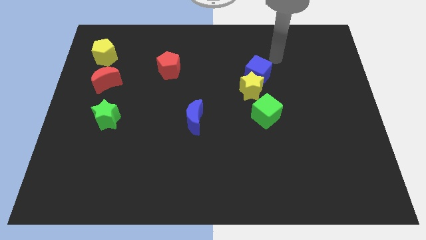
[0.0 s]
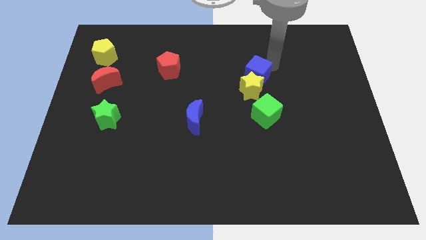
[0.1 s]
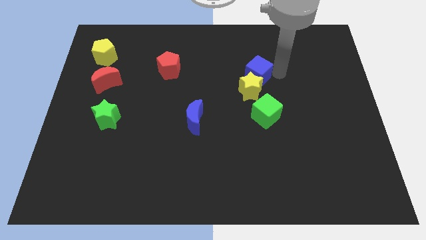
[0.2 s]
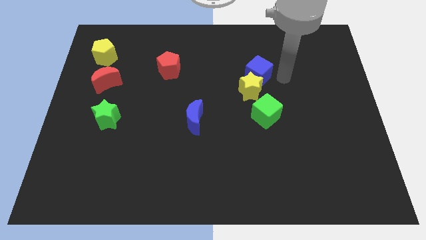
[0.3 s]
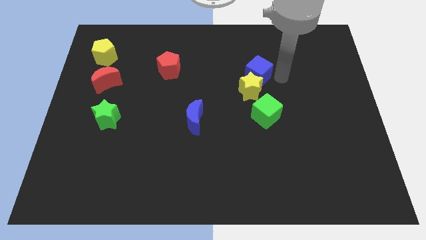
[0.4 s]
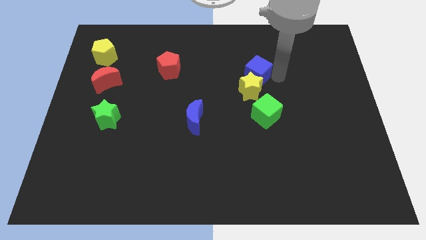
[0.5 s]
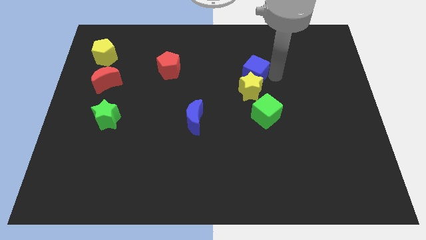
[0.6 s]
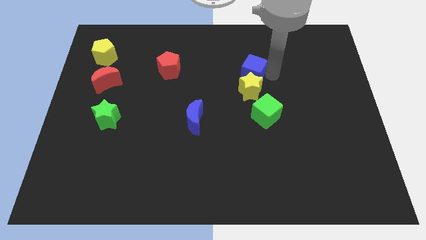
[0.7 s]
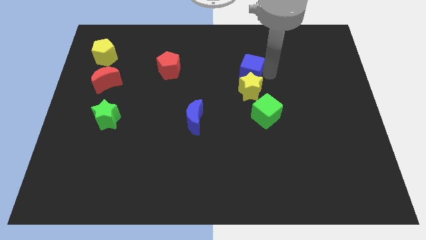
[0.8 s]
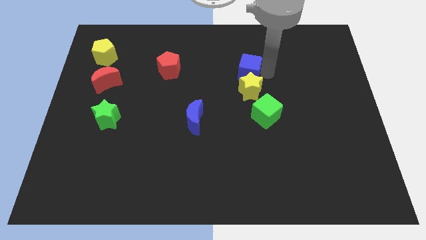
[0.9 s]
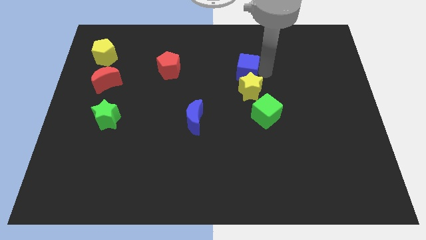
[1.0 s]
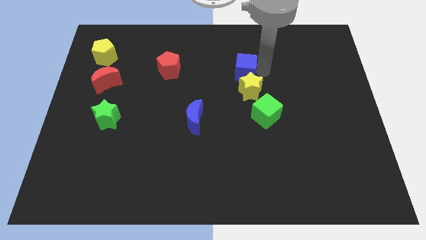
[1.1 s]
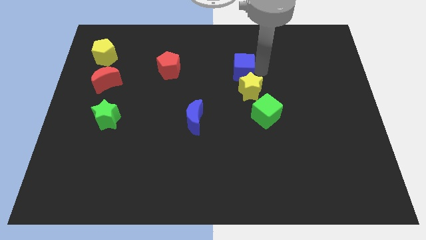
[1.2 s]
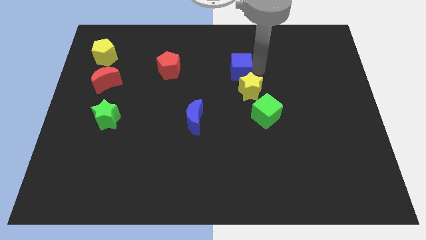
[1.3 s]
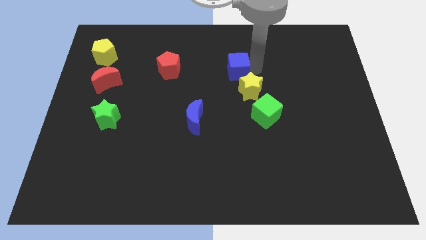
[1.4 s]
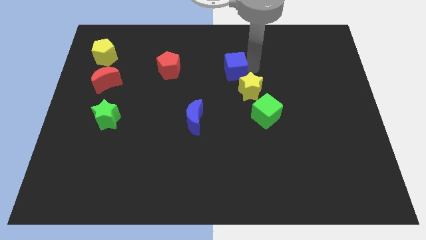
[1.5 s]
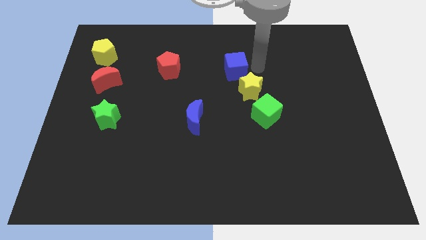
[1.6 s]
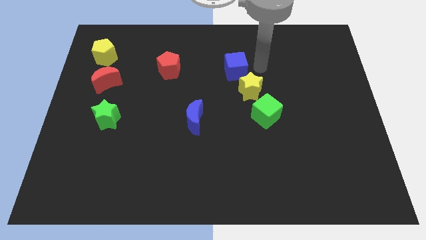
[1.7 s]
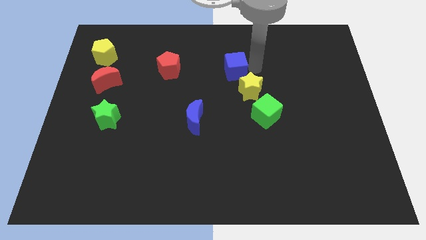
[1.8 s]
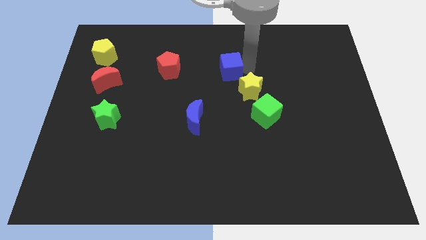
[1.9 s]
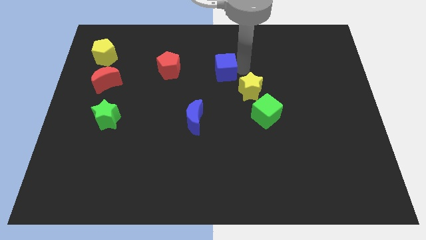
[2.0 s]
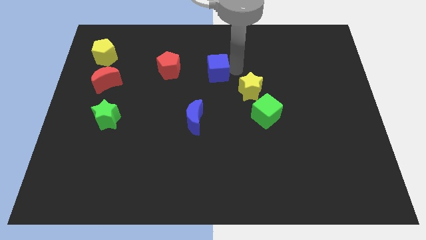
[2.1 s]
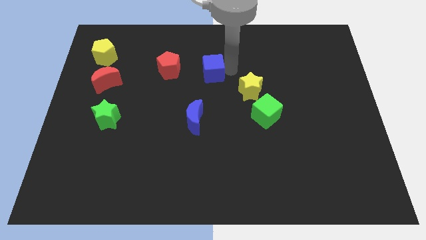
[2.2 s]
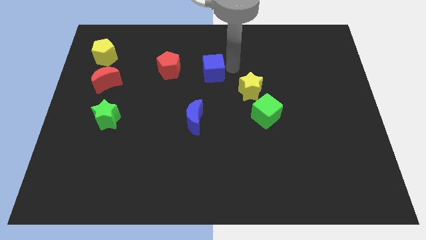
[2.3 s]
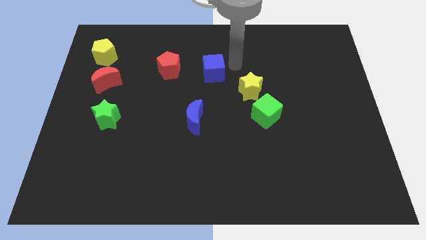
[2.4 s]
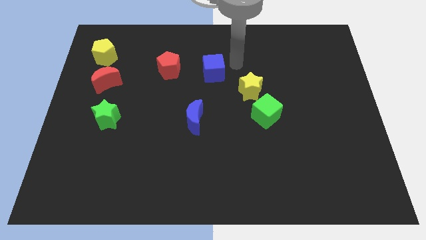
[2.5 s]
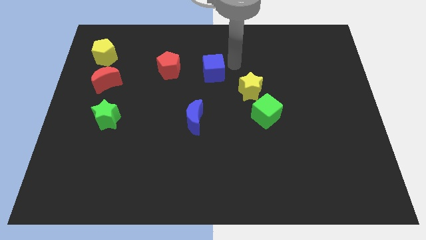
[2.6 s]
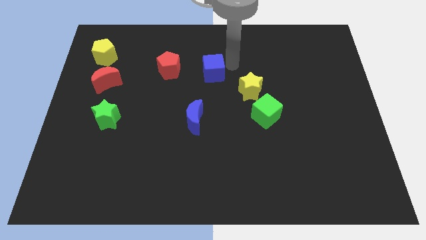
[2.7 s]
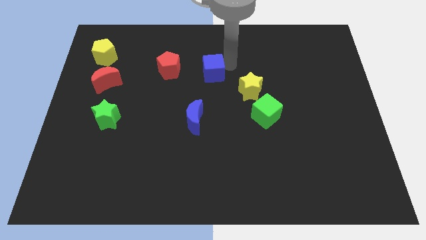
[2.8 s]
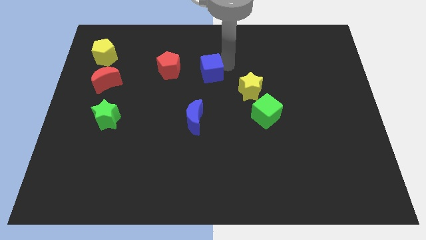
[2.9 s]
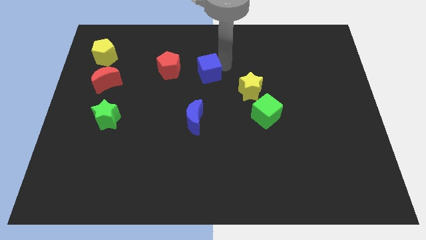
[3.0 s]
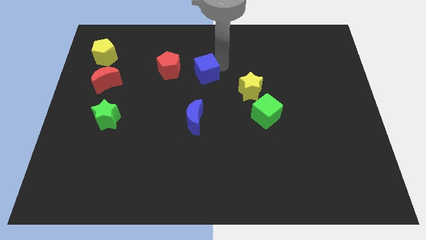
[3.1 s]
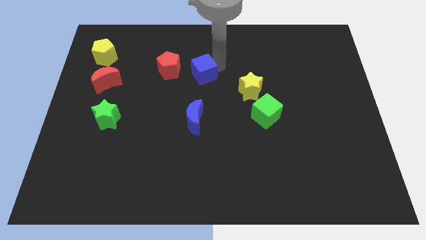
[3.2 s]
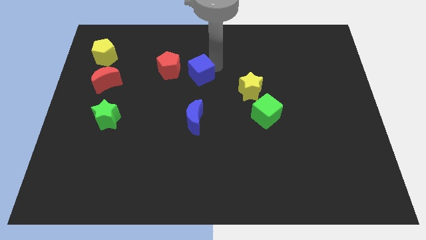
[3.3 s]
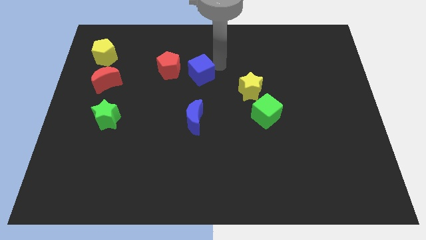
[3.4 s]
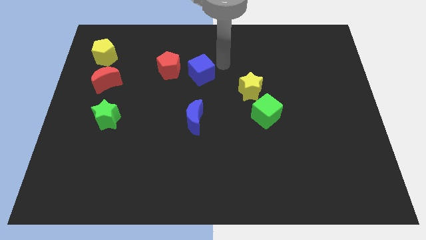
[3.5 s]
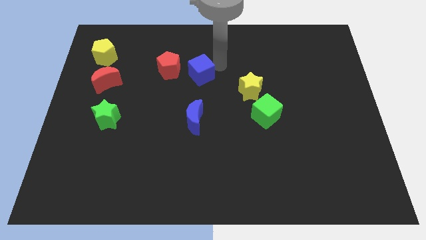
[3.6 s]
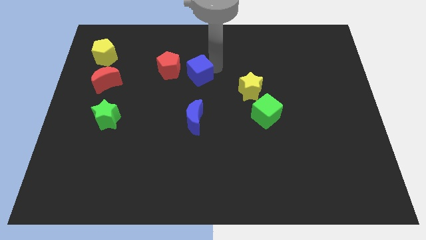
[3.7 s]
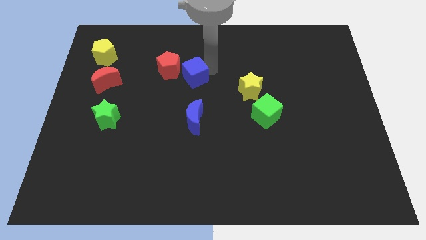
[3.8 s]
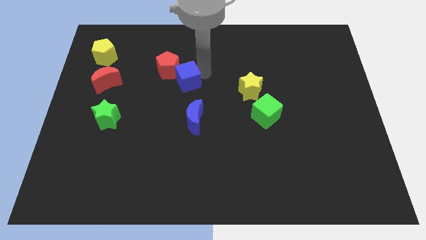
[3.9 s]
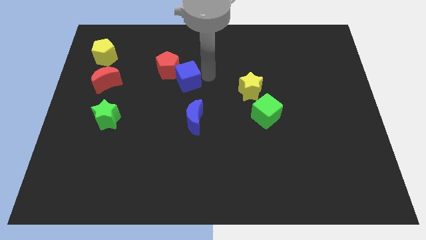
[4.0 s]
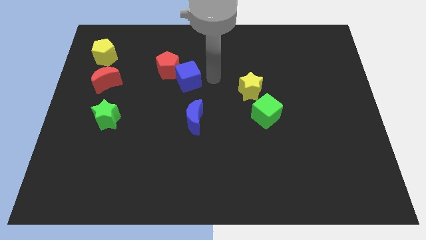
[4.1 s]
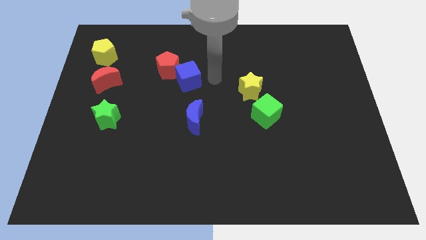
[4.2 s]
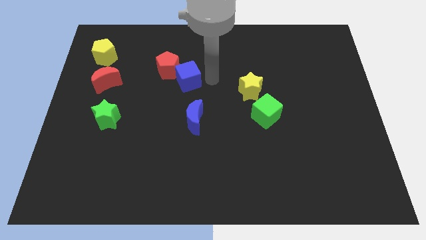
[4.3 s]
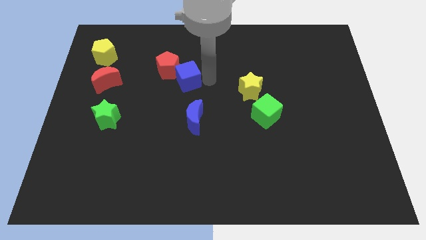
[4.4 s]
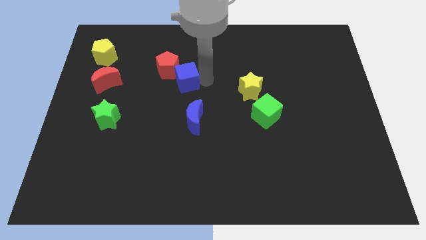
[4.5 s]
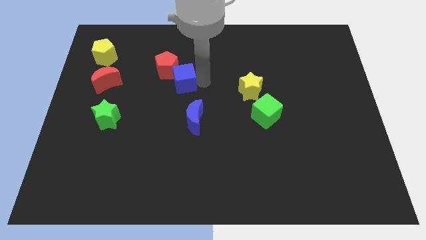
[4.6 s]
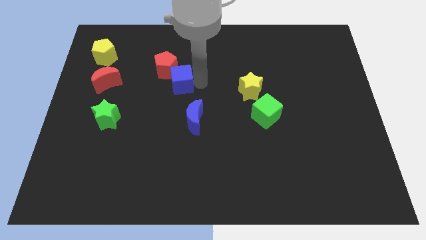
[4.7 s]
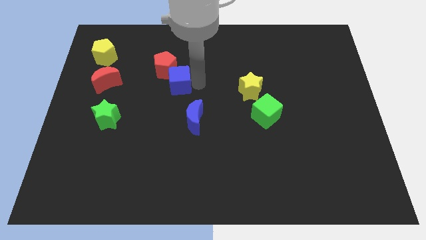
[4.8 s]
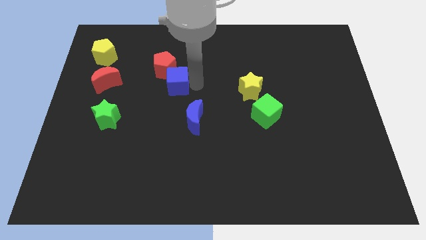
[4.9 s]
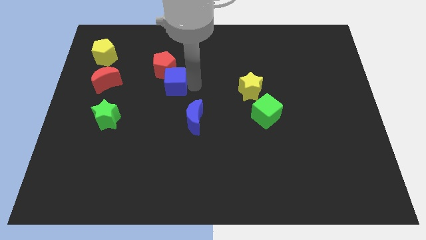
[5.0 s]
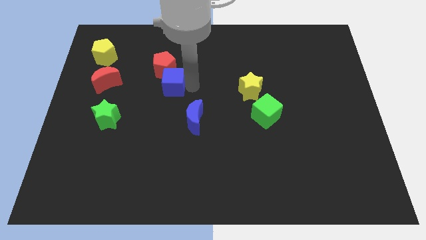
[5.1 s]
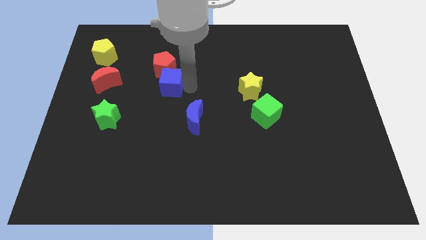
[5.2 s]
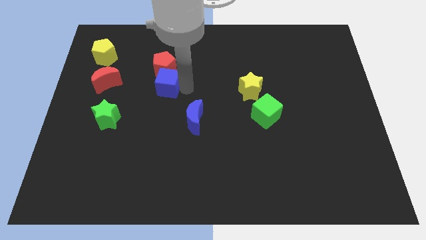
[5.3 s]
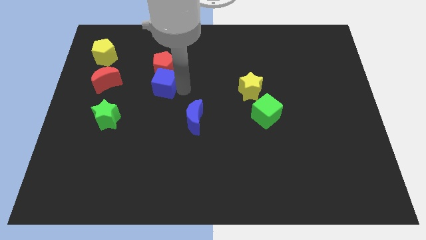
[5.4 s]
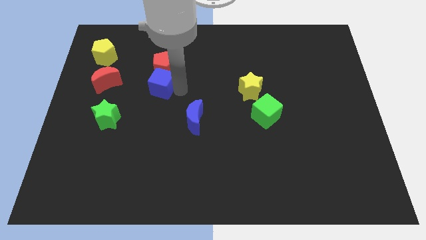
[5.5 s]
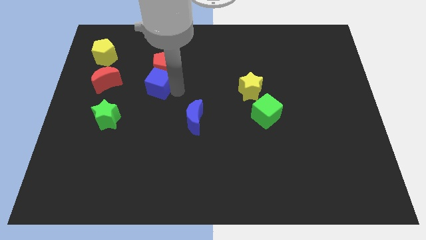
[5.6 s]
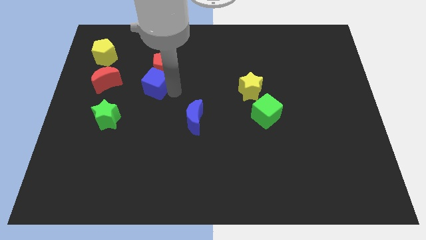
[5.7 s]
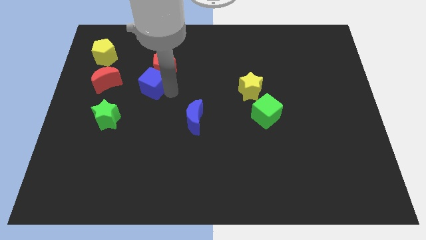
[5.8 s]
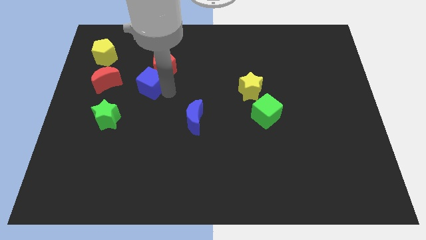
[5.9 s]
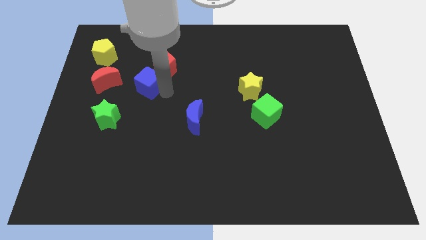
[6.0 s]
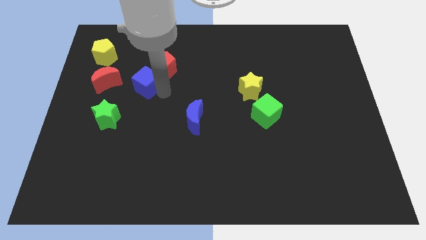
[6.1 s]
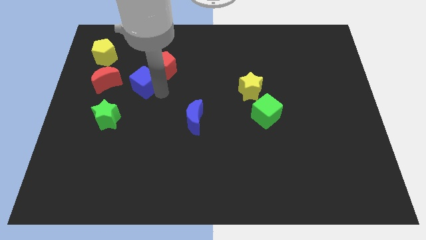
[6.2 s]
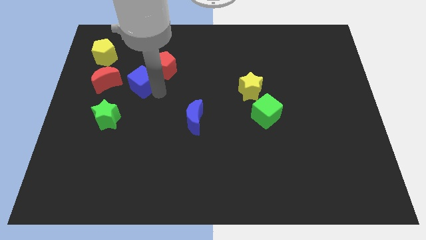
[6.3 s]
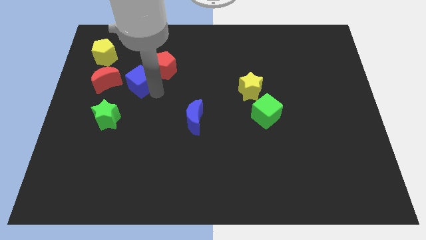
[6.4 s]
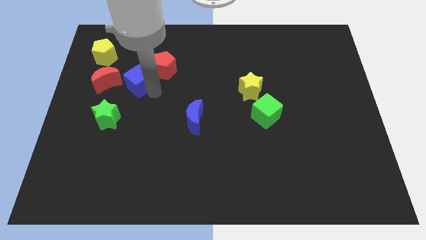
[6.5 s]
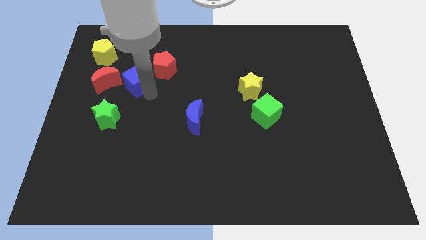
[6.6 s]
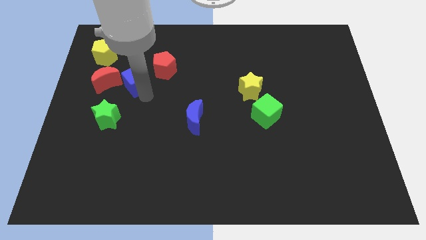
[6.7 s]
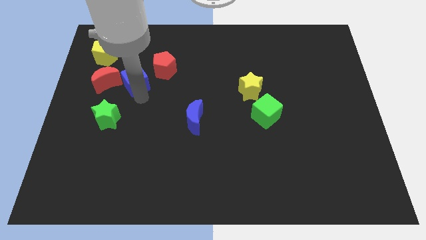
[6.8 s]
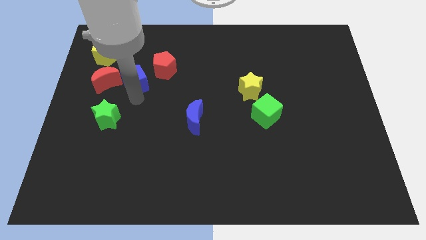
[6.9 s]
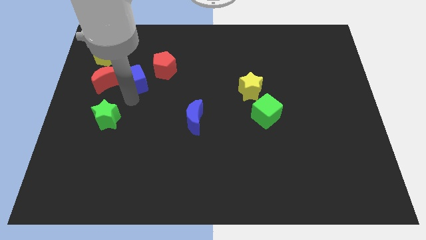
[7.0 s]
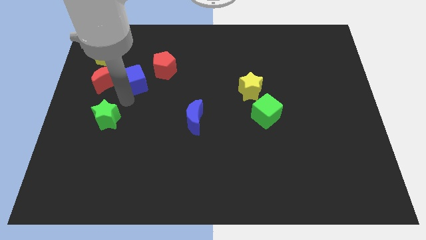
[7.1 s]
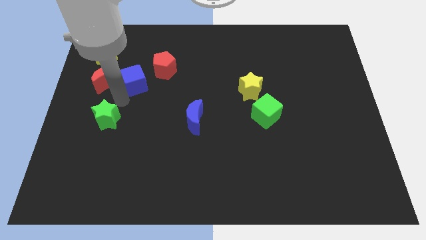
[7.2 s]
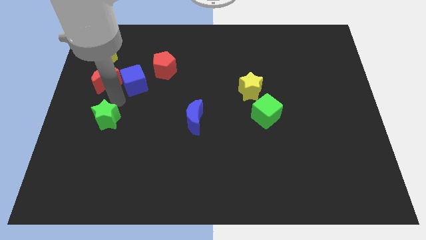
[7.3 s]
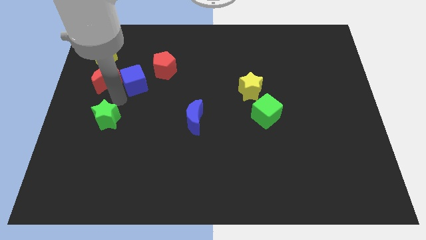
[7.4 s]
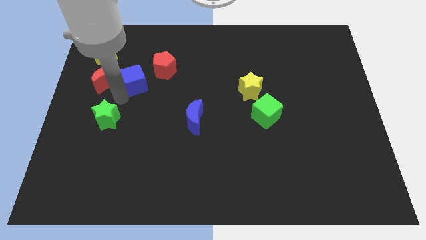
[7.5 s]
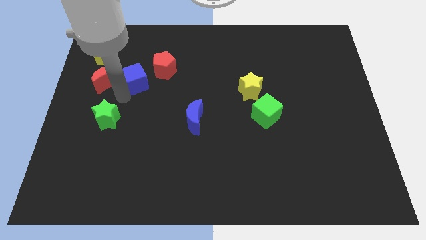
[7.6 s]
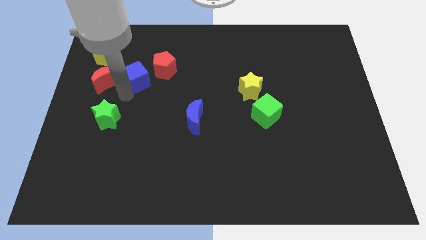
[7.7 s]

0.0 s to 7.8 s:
push the blue cube to the bottom right side of the yellow pentagon
